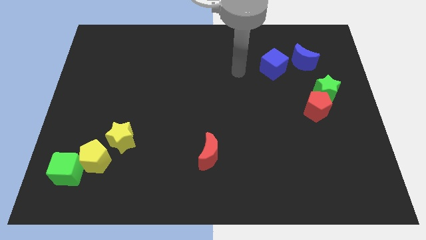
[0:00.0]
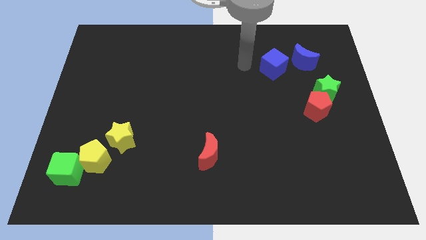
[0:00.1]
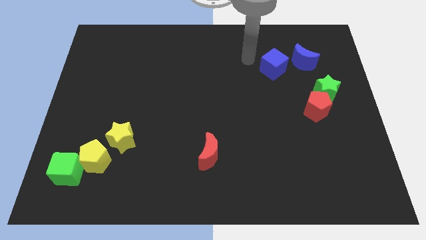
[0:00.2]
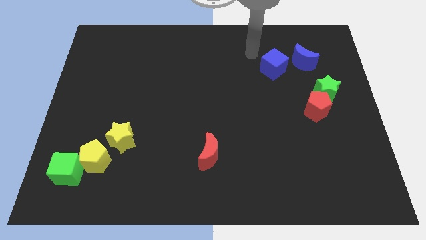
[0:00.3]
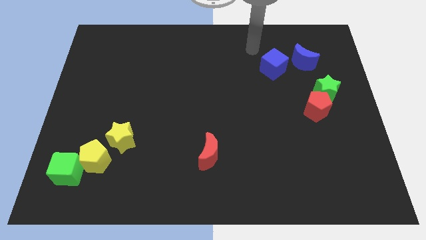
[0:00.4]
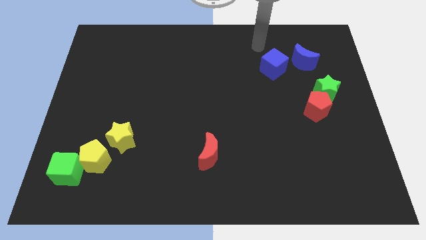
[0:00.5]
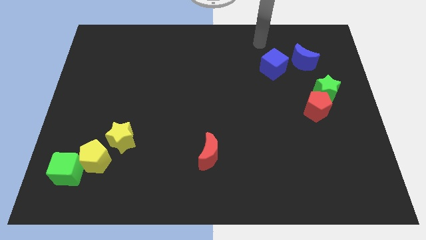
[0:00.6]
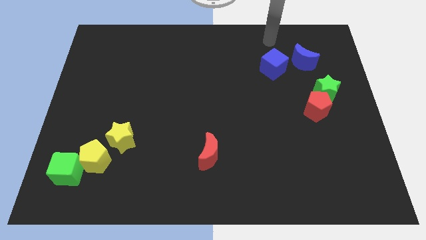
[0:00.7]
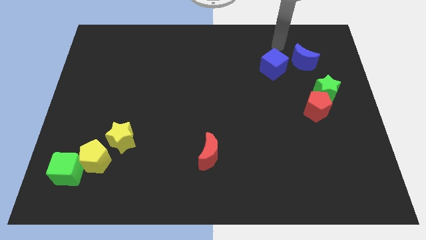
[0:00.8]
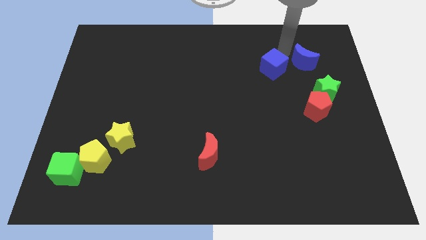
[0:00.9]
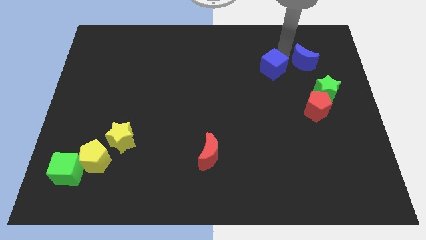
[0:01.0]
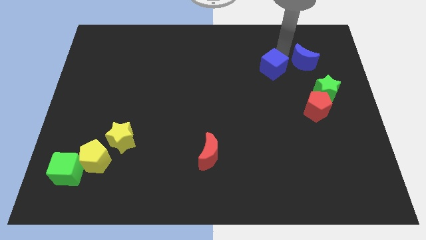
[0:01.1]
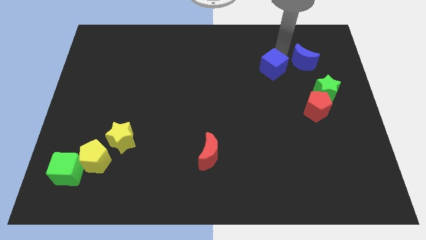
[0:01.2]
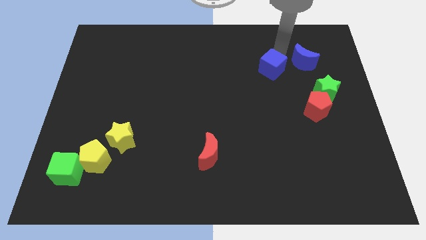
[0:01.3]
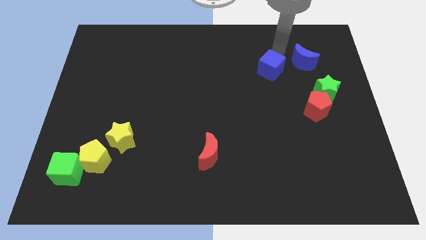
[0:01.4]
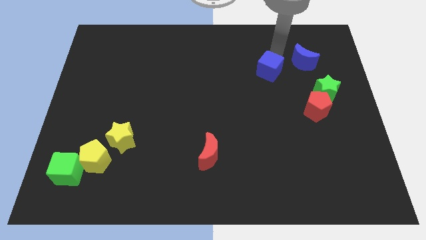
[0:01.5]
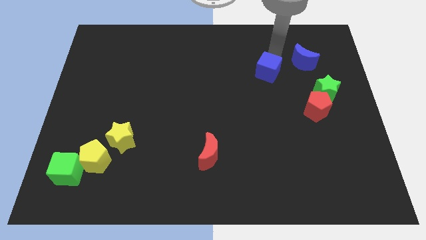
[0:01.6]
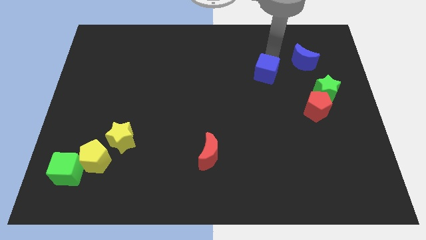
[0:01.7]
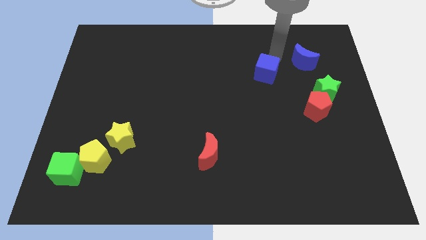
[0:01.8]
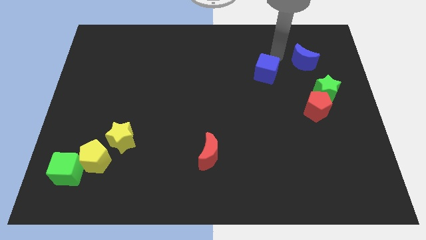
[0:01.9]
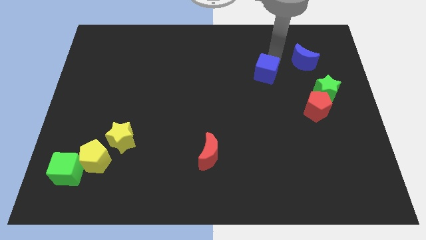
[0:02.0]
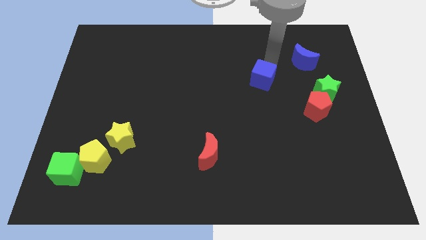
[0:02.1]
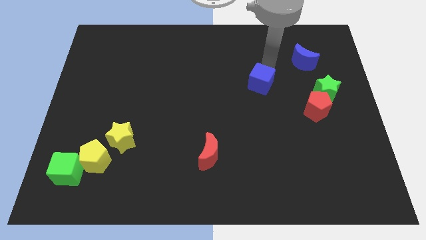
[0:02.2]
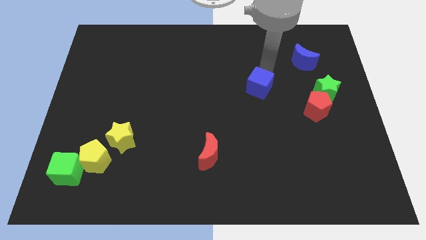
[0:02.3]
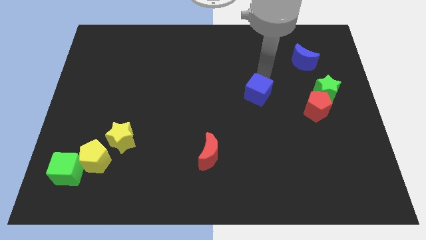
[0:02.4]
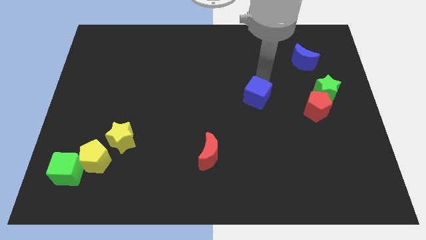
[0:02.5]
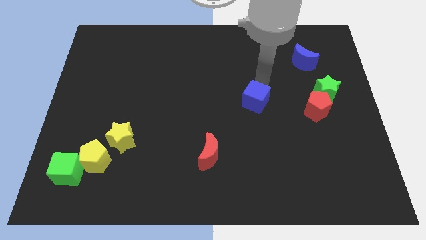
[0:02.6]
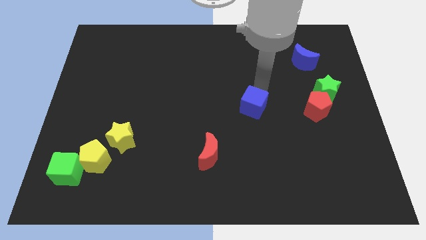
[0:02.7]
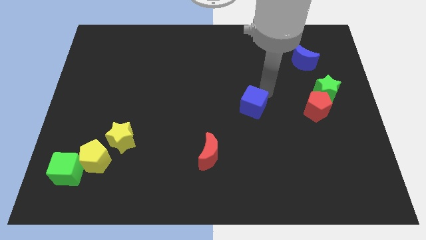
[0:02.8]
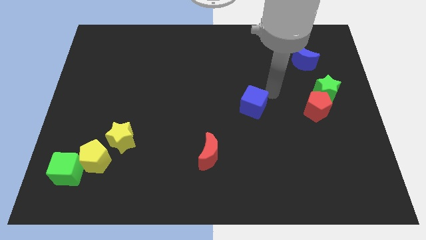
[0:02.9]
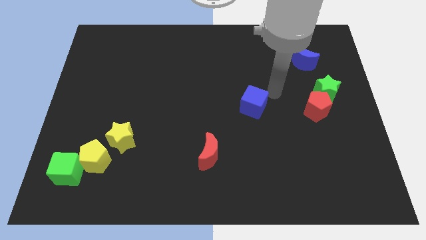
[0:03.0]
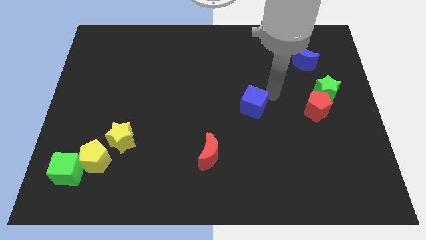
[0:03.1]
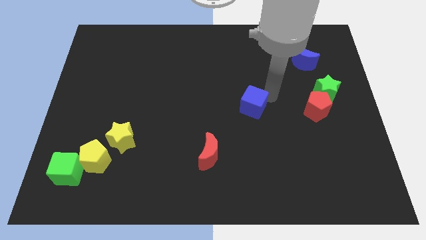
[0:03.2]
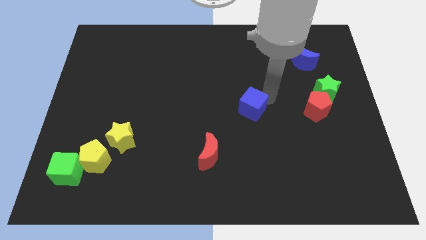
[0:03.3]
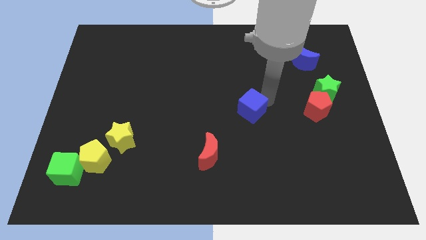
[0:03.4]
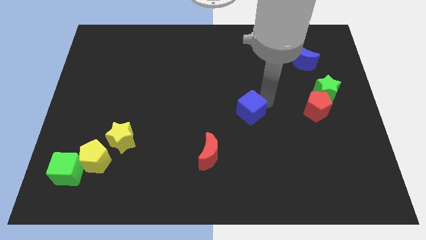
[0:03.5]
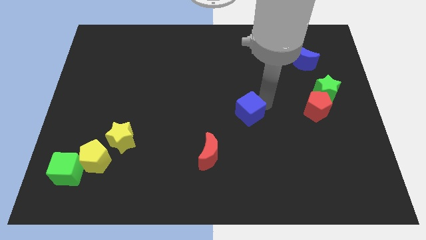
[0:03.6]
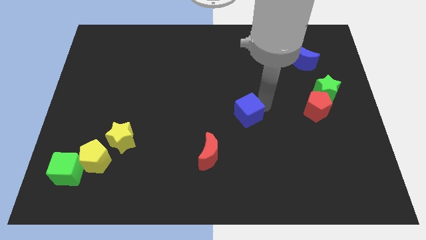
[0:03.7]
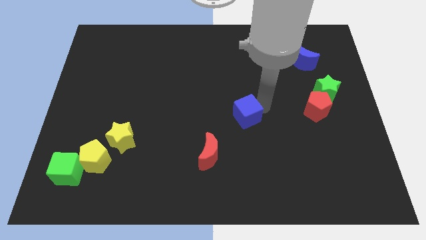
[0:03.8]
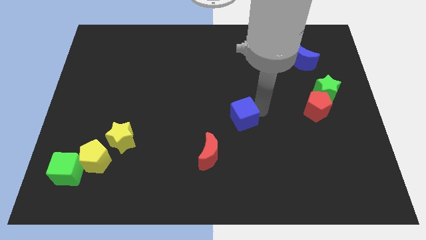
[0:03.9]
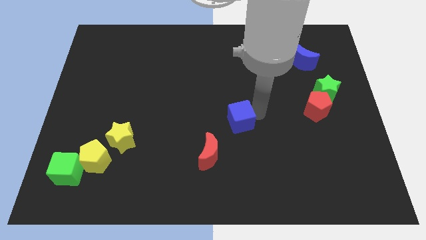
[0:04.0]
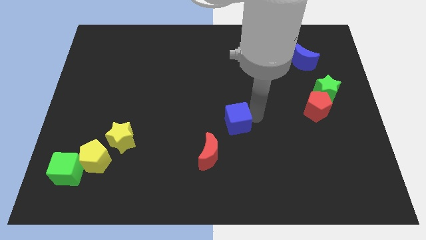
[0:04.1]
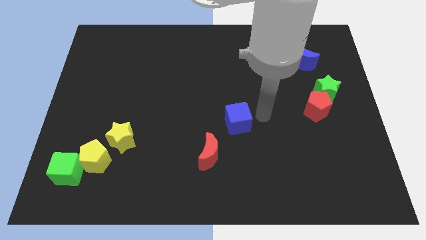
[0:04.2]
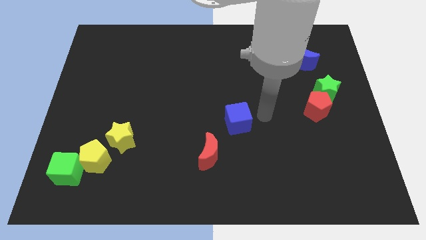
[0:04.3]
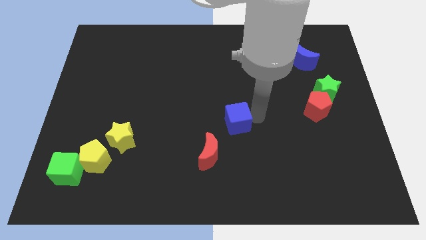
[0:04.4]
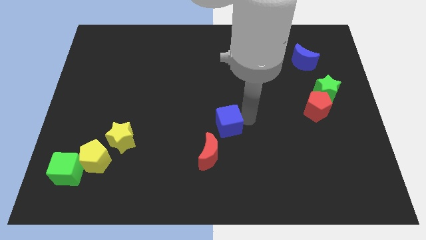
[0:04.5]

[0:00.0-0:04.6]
push the blue cube down and left

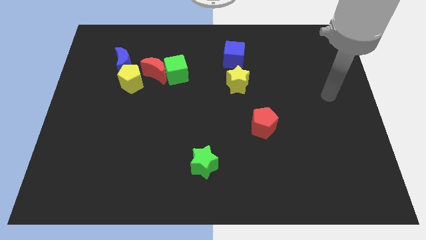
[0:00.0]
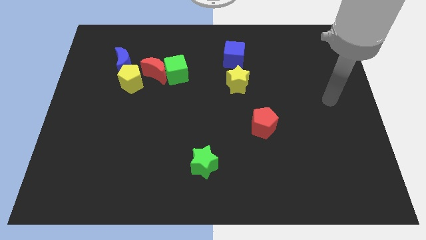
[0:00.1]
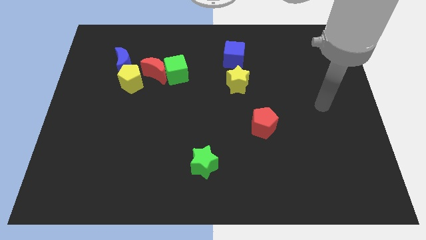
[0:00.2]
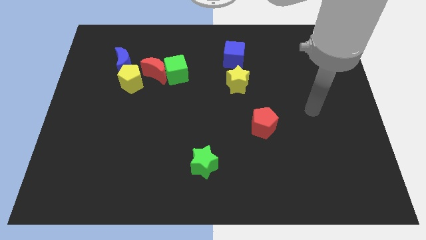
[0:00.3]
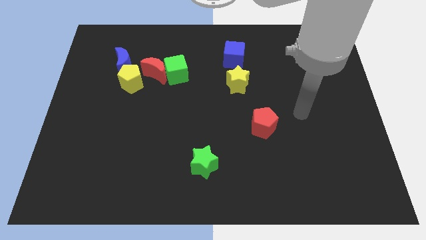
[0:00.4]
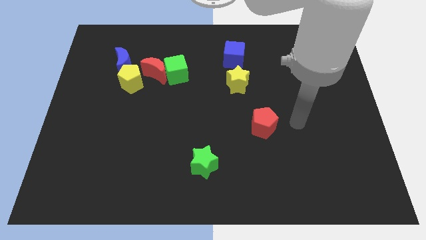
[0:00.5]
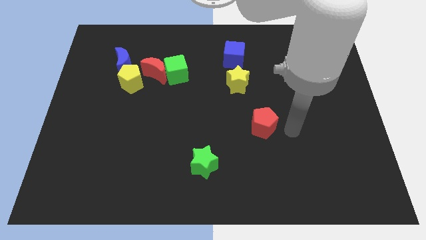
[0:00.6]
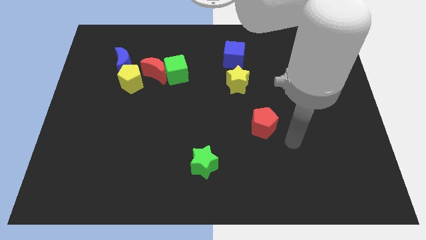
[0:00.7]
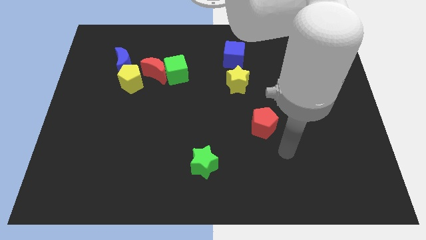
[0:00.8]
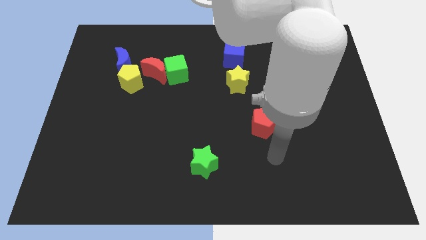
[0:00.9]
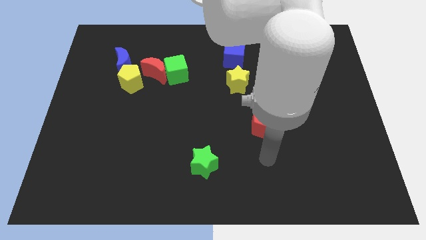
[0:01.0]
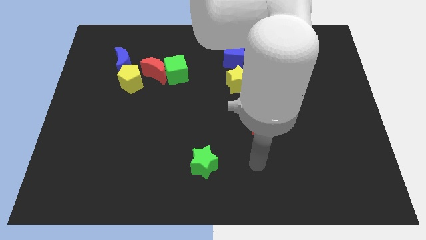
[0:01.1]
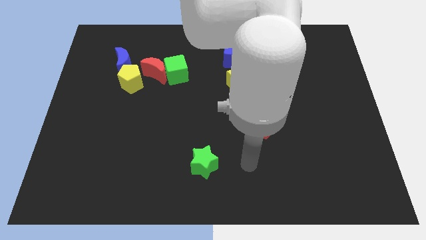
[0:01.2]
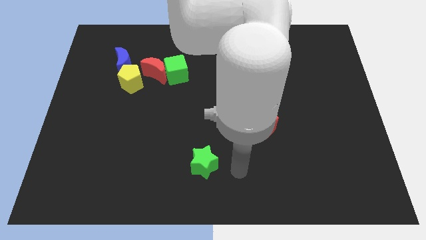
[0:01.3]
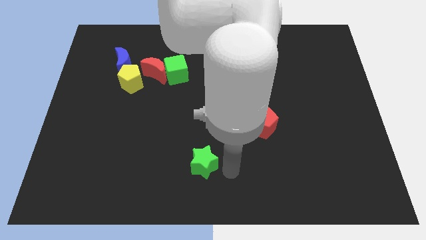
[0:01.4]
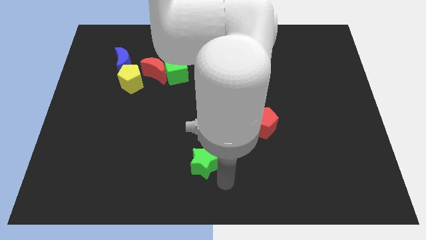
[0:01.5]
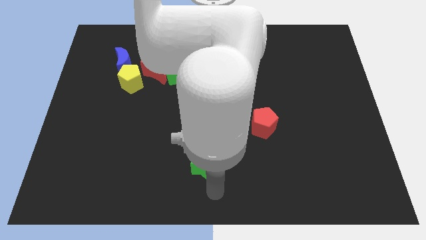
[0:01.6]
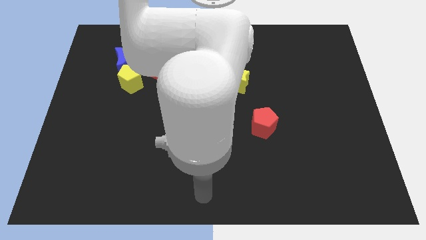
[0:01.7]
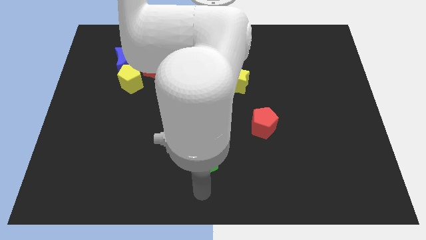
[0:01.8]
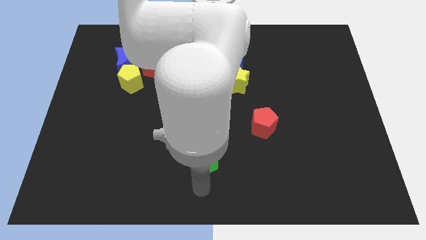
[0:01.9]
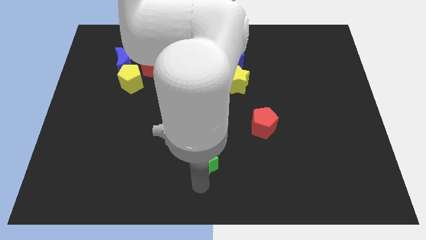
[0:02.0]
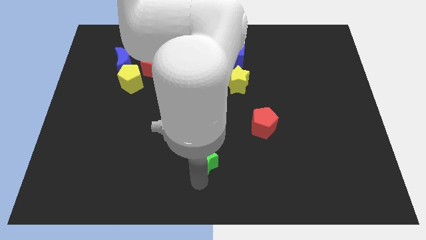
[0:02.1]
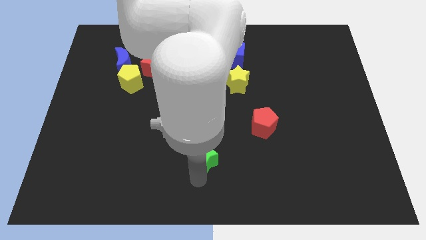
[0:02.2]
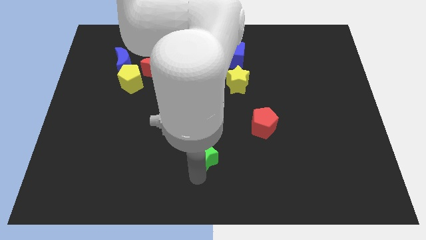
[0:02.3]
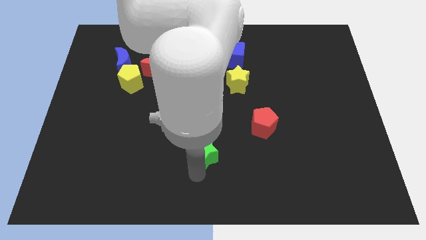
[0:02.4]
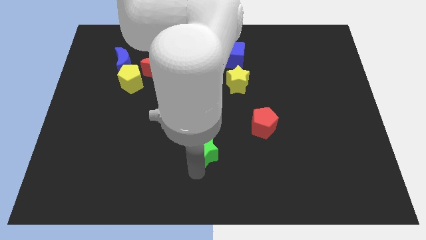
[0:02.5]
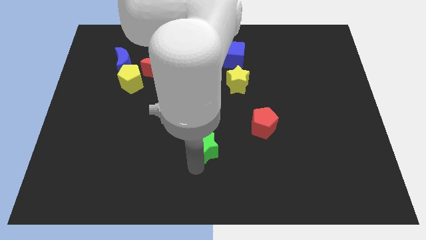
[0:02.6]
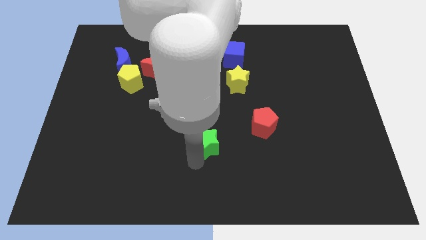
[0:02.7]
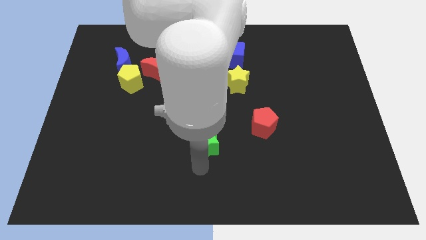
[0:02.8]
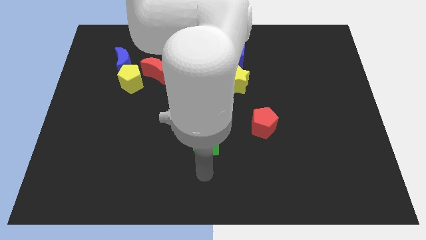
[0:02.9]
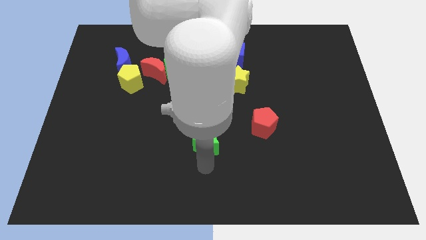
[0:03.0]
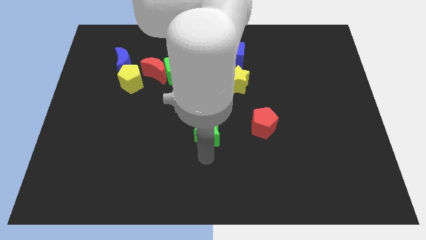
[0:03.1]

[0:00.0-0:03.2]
slightly slide the green star up

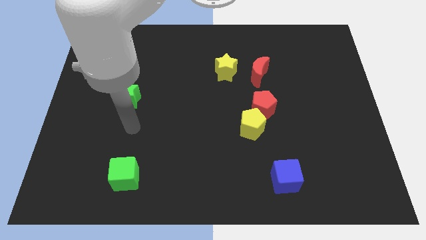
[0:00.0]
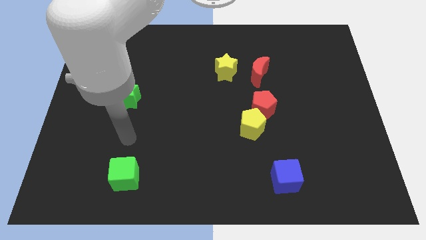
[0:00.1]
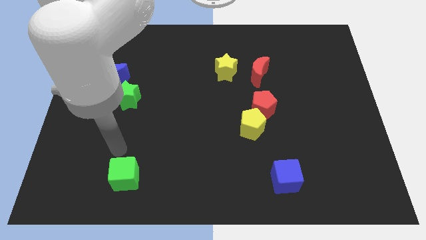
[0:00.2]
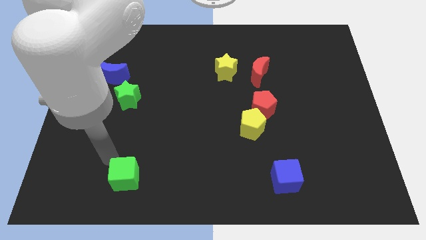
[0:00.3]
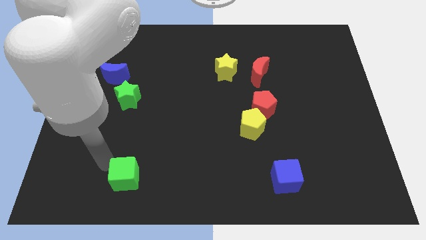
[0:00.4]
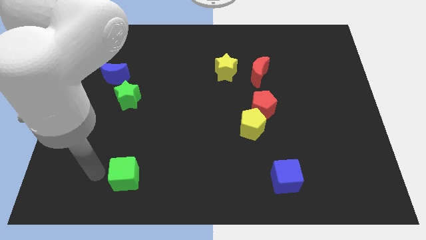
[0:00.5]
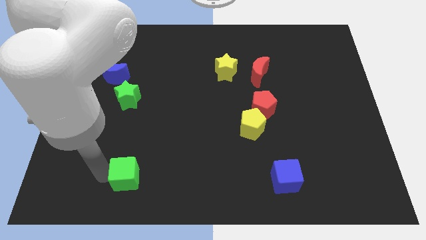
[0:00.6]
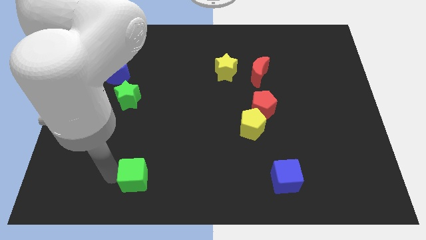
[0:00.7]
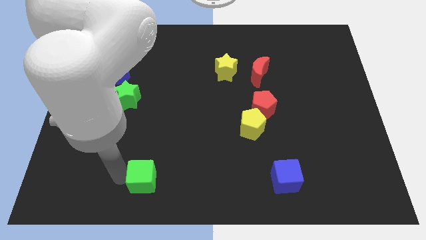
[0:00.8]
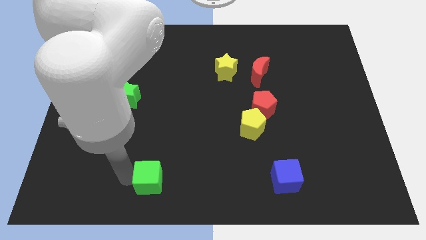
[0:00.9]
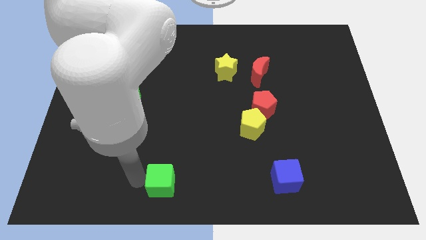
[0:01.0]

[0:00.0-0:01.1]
slightly push the green cube right
